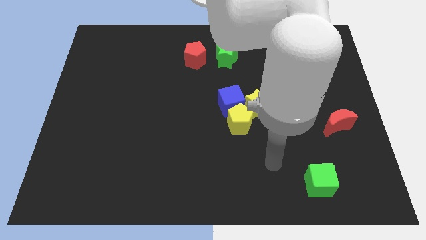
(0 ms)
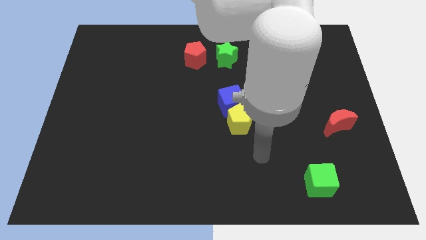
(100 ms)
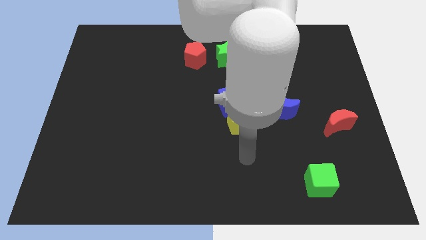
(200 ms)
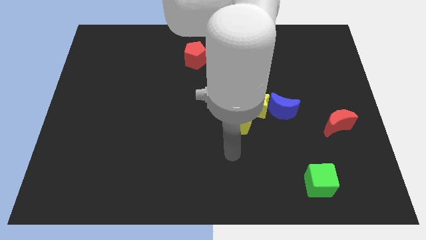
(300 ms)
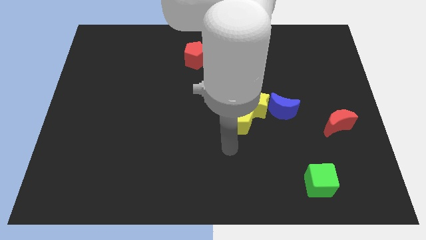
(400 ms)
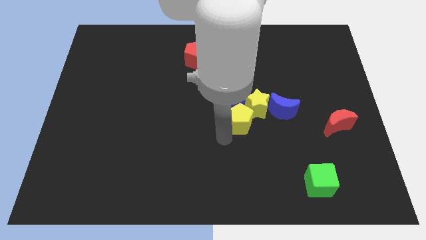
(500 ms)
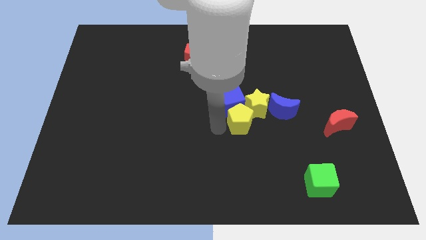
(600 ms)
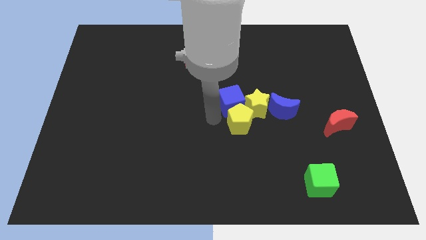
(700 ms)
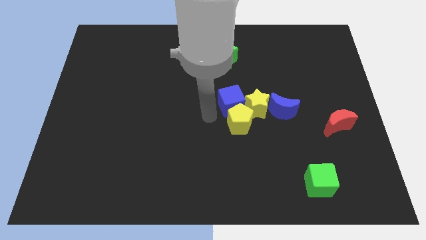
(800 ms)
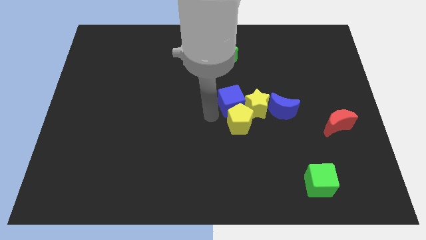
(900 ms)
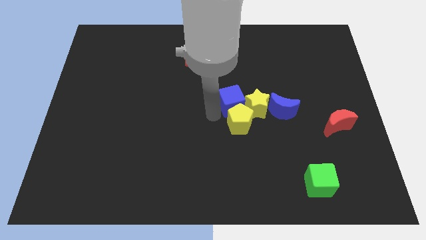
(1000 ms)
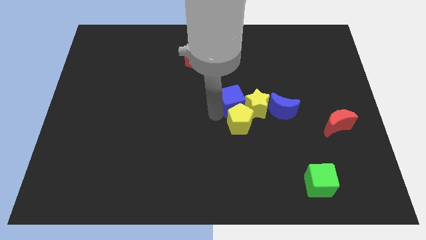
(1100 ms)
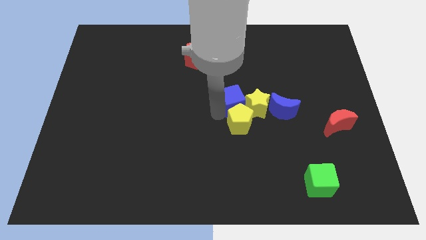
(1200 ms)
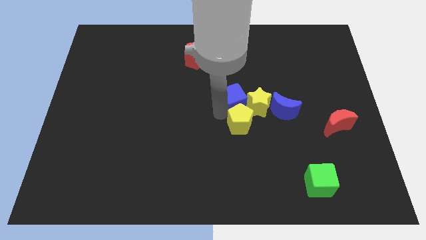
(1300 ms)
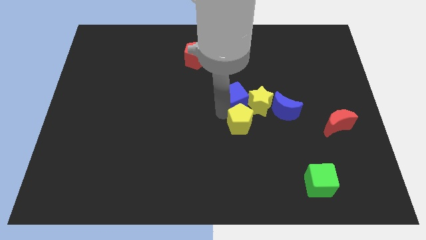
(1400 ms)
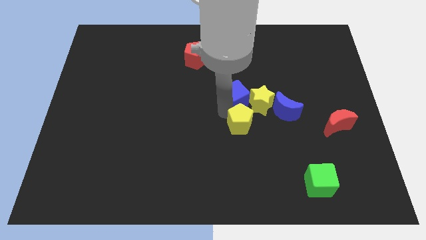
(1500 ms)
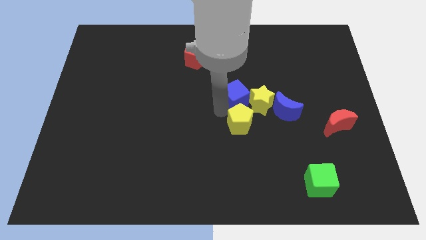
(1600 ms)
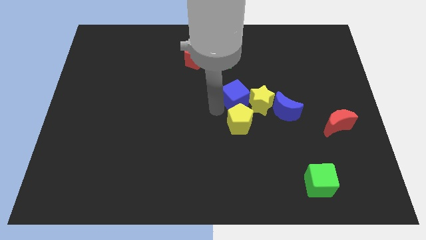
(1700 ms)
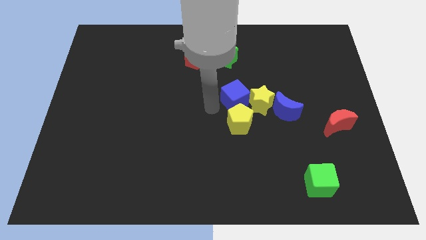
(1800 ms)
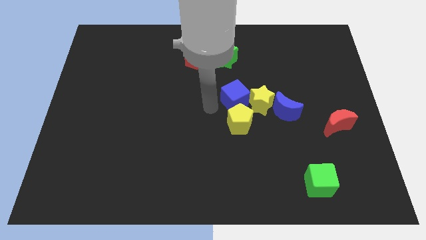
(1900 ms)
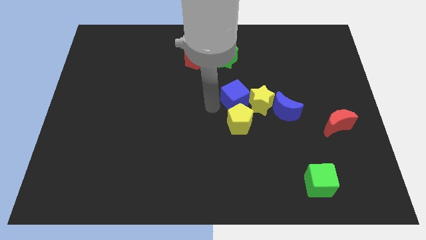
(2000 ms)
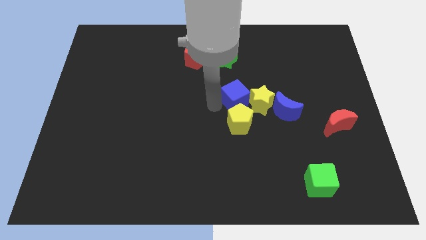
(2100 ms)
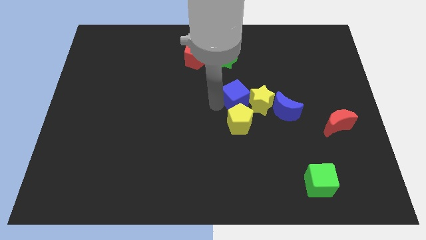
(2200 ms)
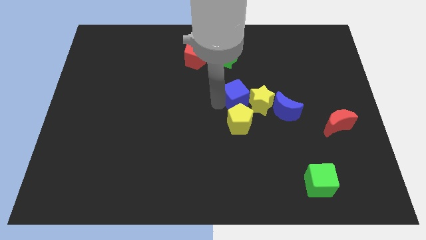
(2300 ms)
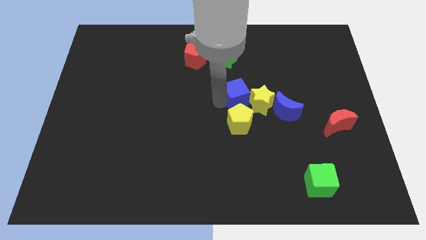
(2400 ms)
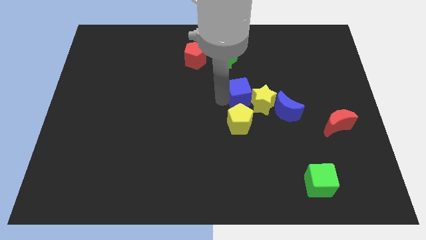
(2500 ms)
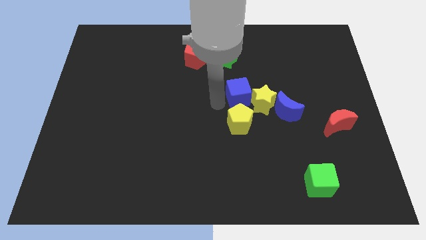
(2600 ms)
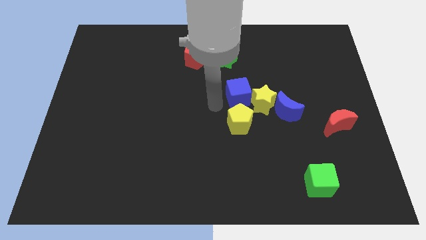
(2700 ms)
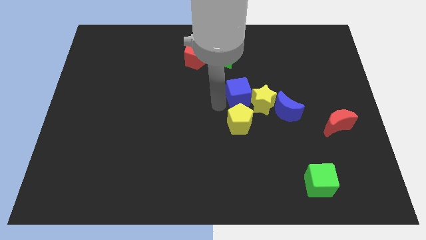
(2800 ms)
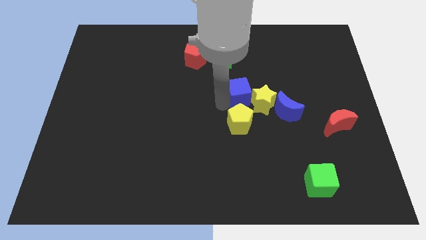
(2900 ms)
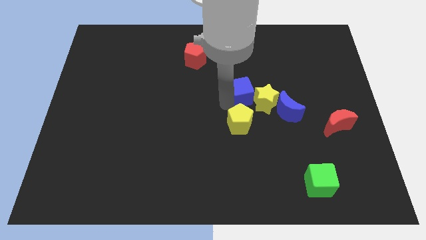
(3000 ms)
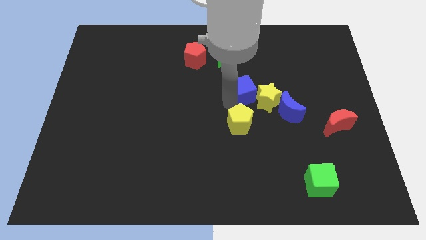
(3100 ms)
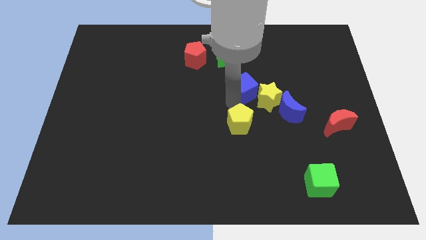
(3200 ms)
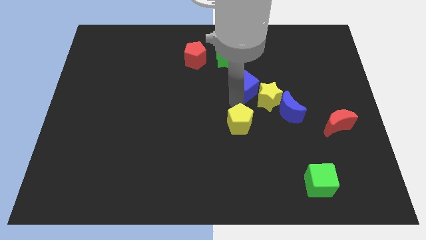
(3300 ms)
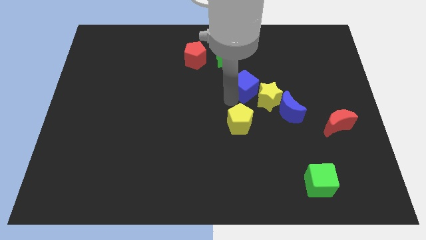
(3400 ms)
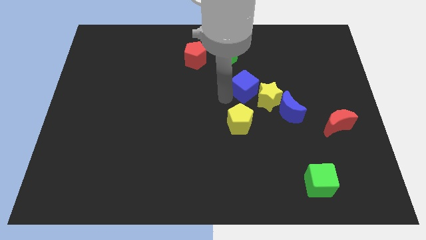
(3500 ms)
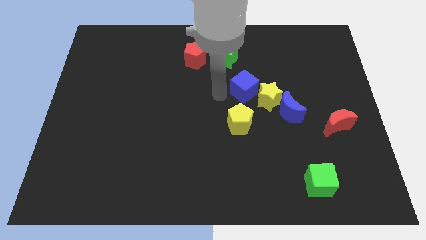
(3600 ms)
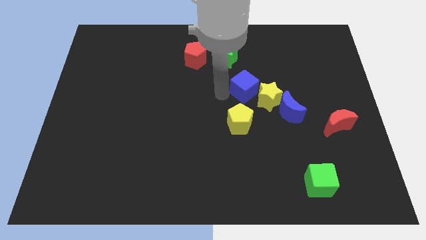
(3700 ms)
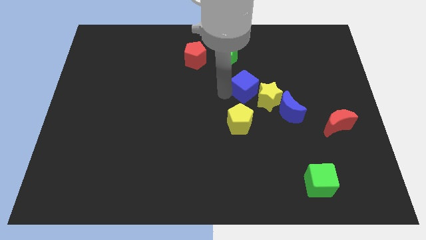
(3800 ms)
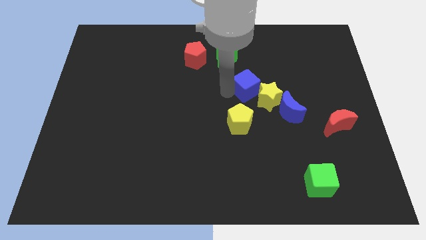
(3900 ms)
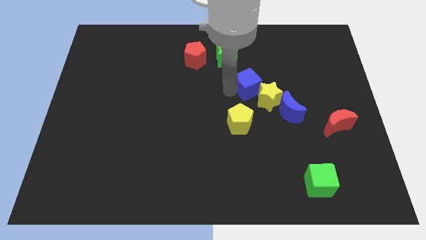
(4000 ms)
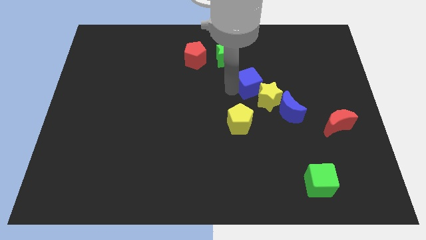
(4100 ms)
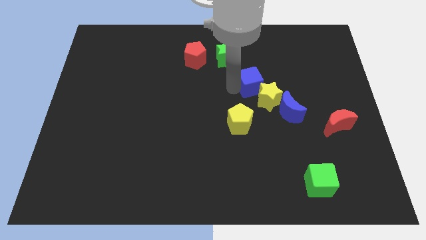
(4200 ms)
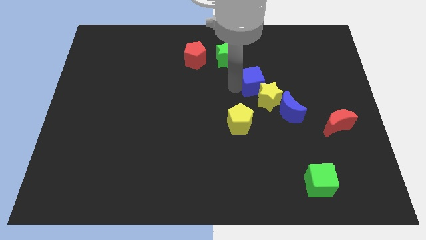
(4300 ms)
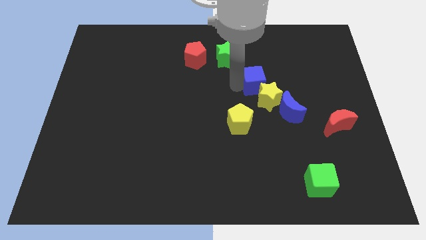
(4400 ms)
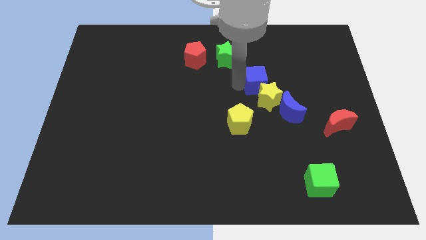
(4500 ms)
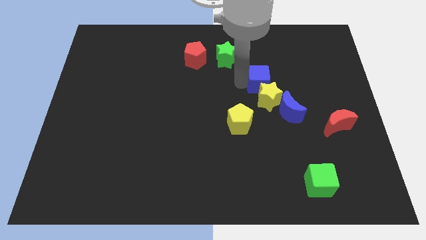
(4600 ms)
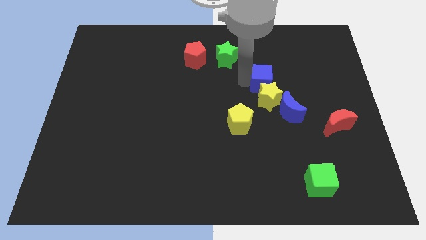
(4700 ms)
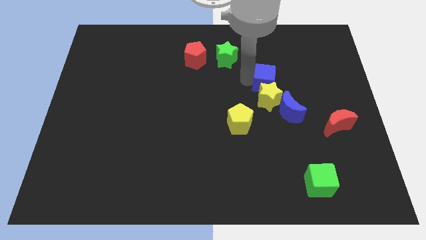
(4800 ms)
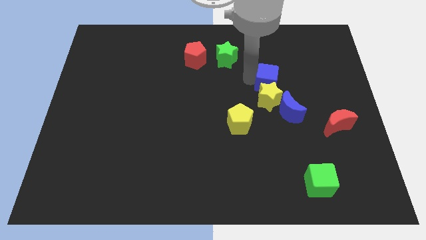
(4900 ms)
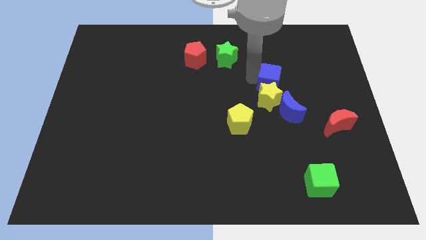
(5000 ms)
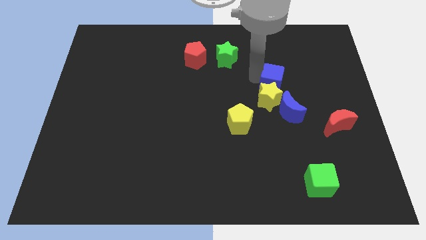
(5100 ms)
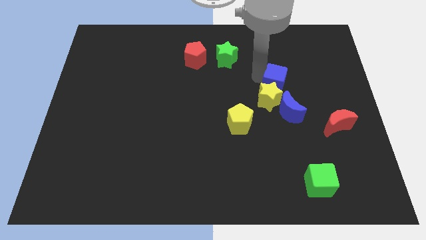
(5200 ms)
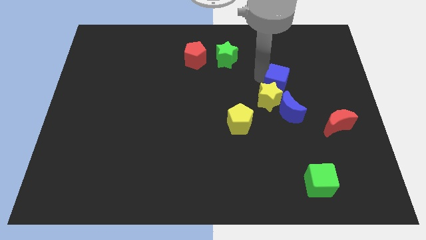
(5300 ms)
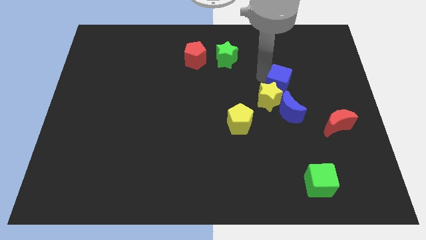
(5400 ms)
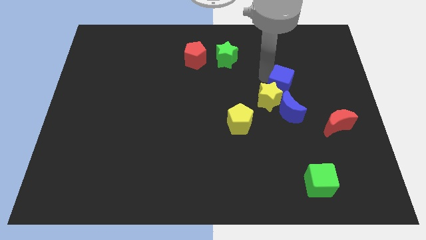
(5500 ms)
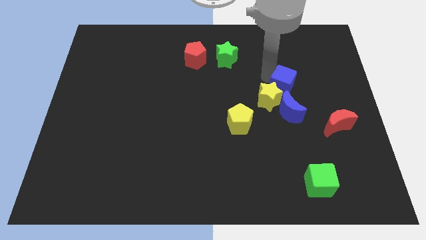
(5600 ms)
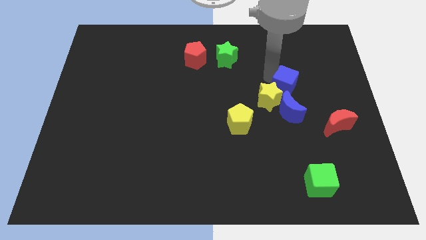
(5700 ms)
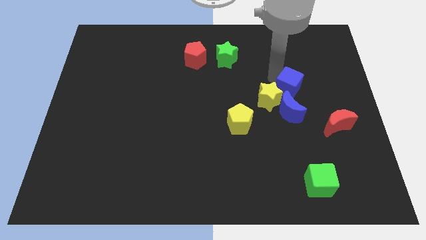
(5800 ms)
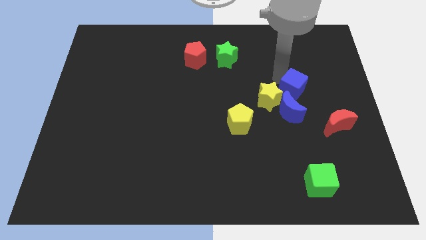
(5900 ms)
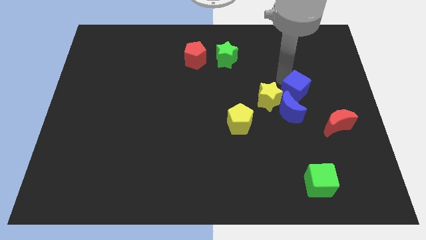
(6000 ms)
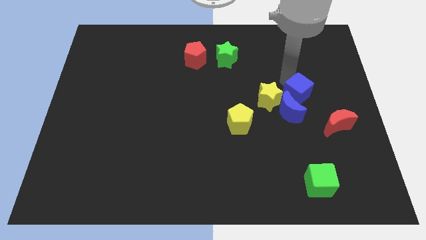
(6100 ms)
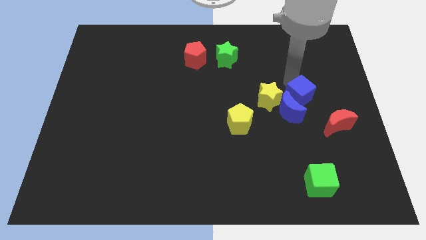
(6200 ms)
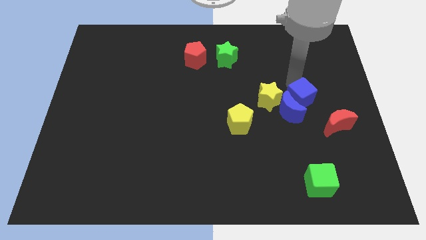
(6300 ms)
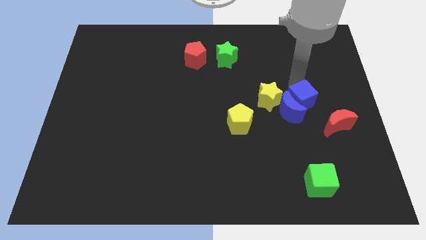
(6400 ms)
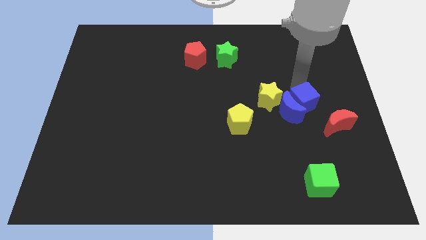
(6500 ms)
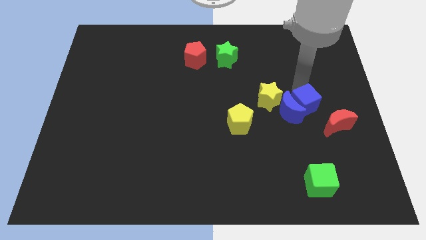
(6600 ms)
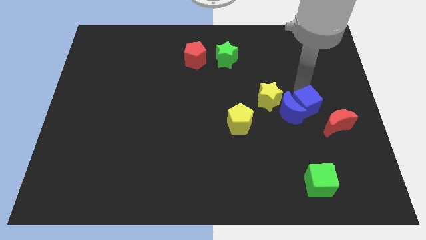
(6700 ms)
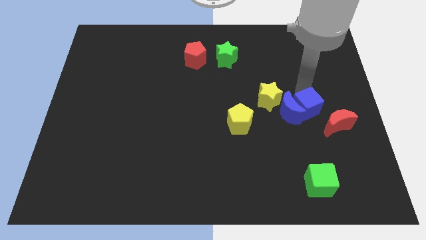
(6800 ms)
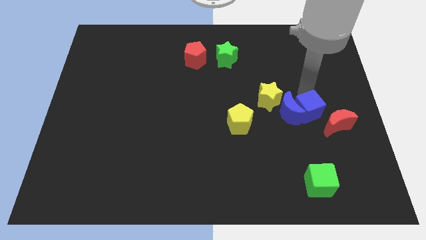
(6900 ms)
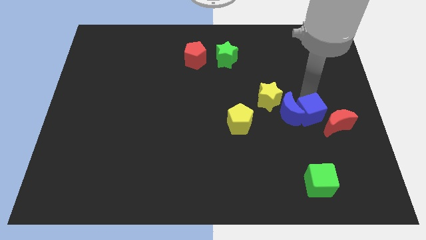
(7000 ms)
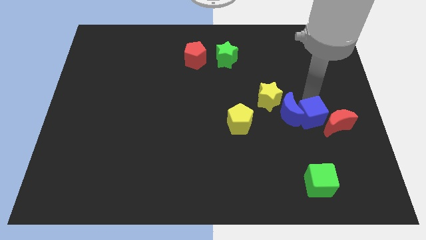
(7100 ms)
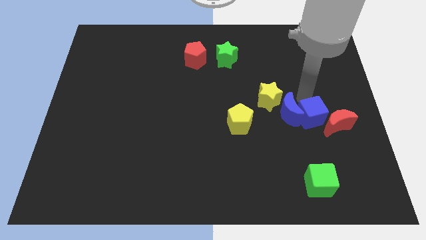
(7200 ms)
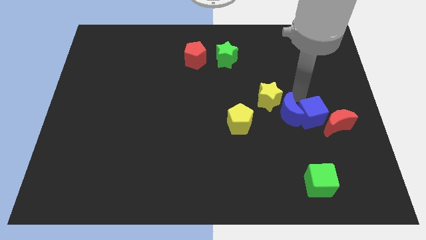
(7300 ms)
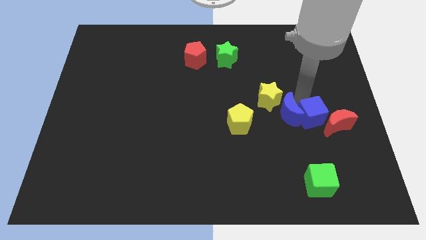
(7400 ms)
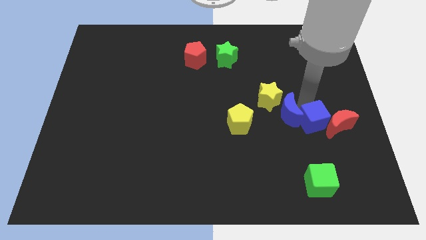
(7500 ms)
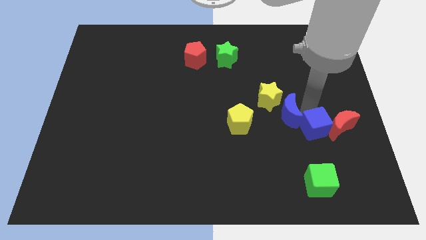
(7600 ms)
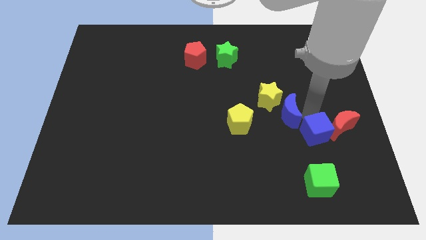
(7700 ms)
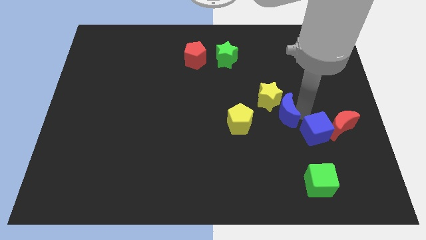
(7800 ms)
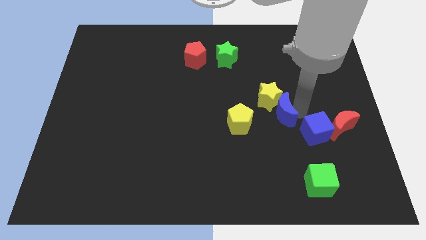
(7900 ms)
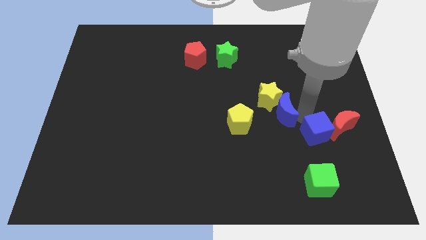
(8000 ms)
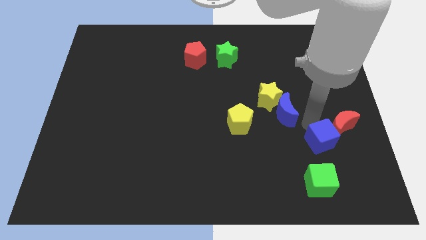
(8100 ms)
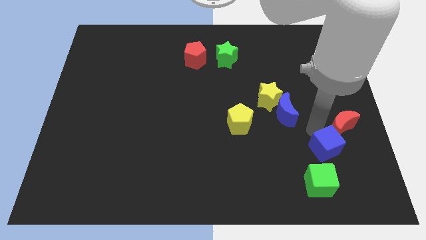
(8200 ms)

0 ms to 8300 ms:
slide the blue cube diagonally up and to the right of the green cube
